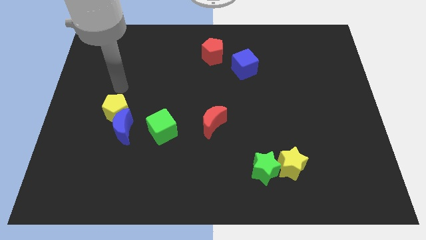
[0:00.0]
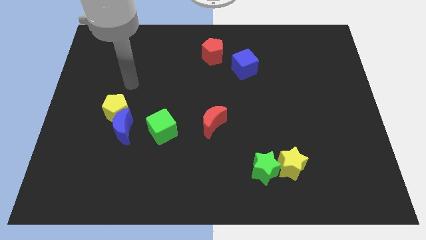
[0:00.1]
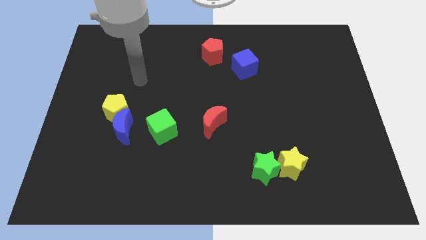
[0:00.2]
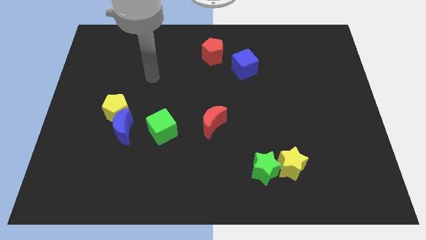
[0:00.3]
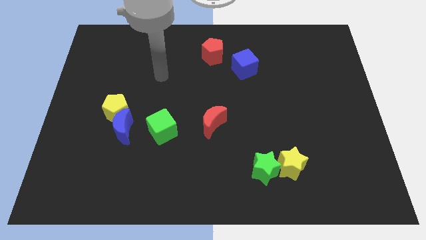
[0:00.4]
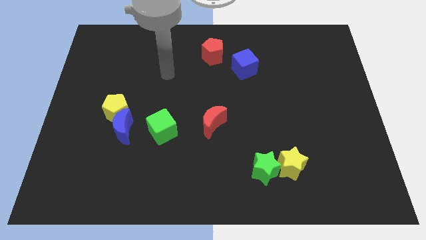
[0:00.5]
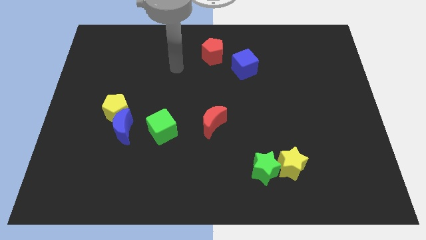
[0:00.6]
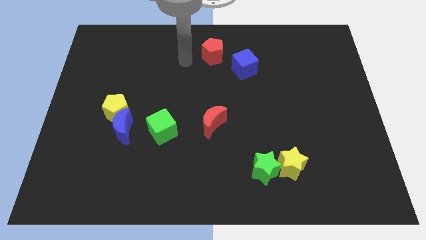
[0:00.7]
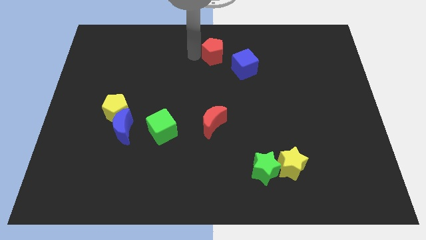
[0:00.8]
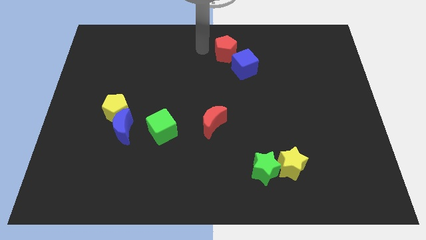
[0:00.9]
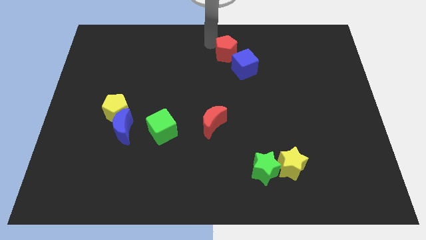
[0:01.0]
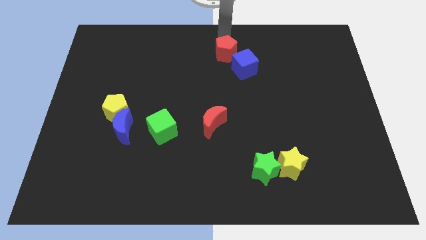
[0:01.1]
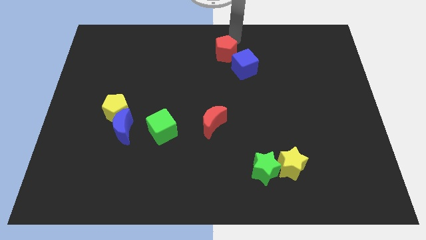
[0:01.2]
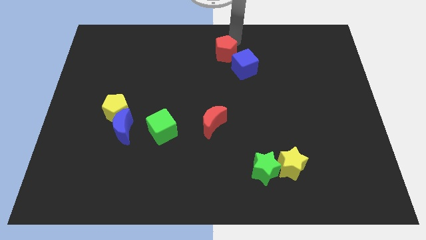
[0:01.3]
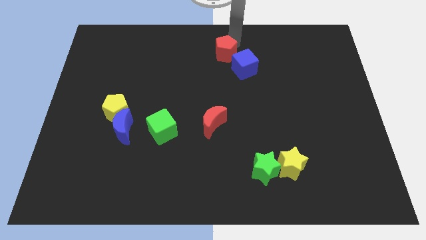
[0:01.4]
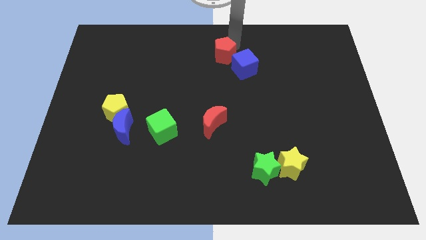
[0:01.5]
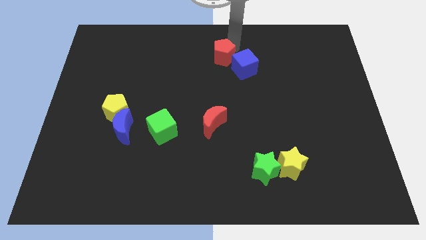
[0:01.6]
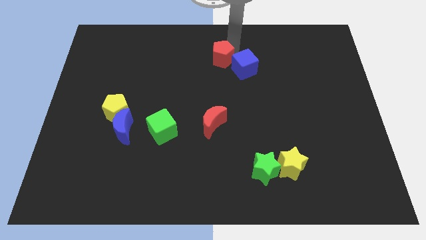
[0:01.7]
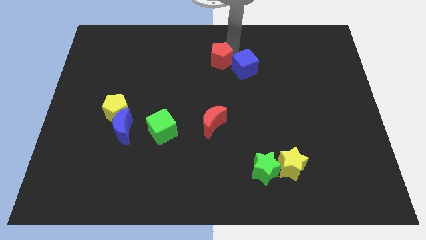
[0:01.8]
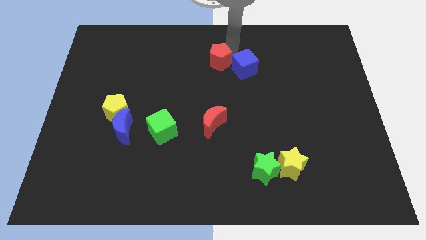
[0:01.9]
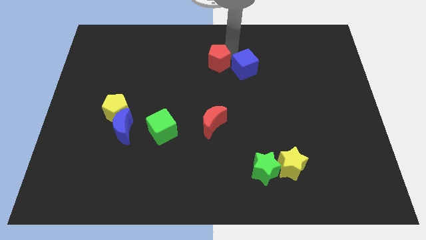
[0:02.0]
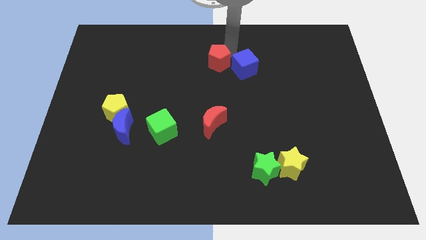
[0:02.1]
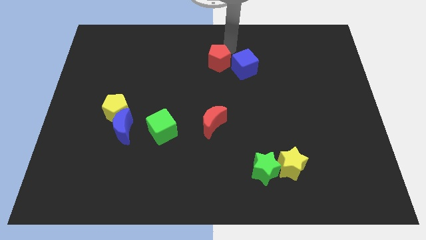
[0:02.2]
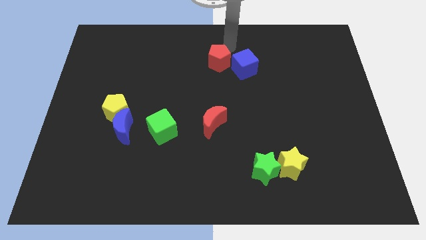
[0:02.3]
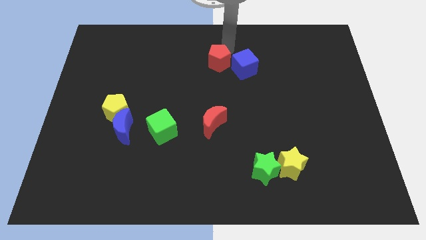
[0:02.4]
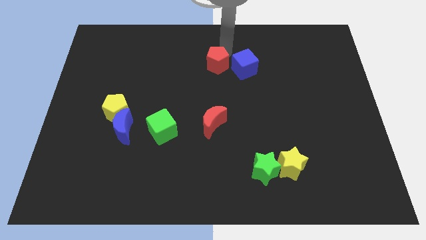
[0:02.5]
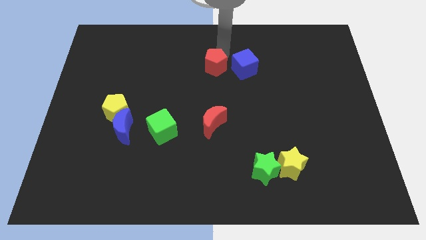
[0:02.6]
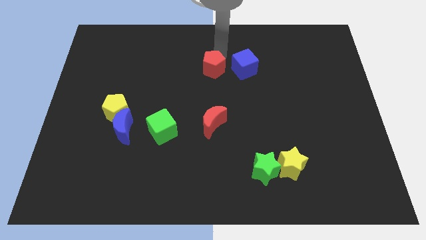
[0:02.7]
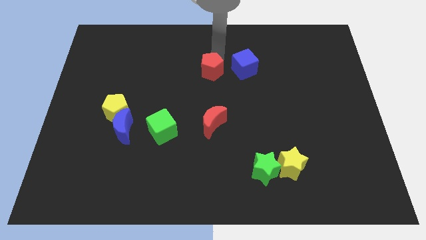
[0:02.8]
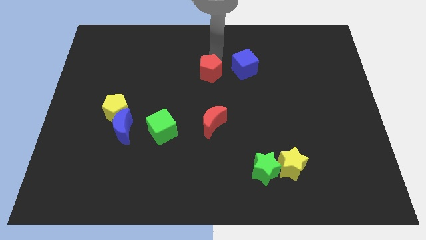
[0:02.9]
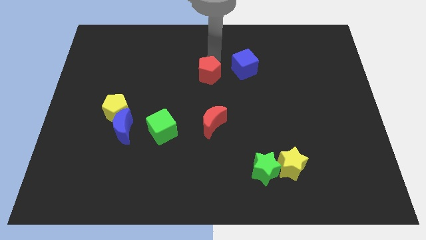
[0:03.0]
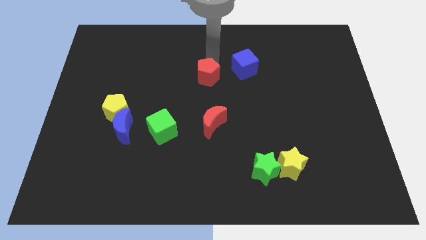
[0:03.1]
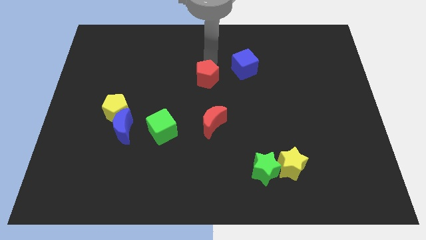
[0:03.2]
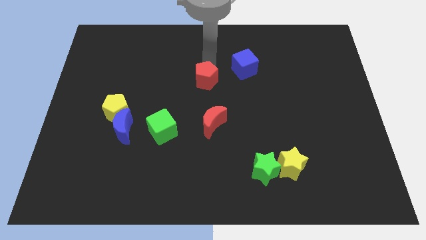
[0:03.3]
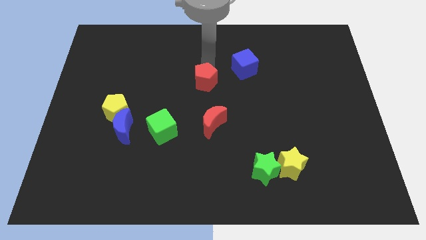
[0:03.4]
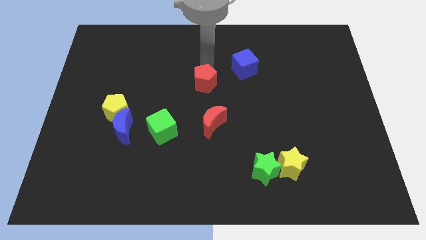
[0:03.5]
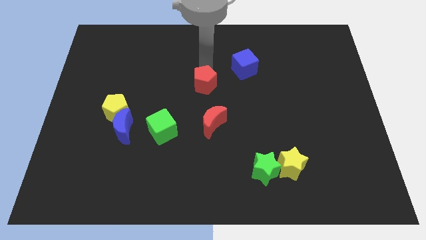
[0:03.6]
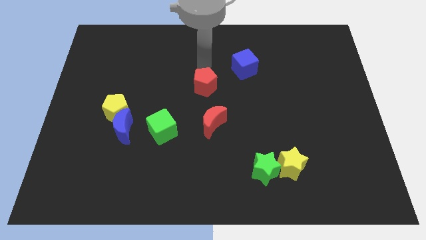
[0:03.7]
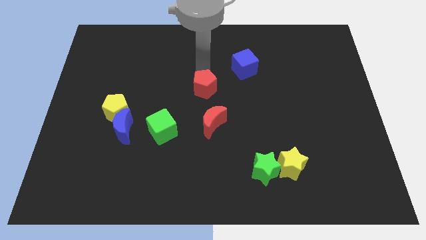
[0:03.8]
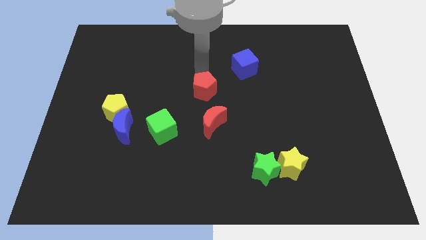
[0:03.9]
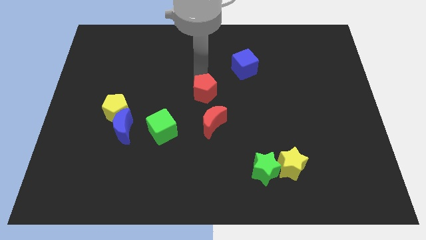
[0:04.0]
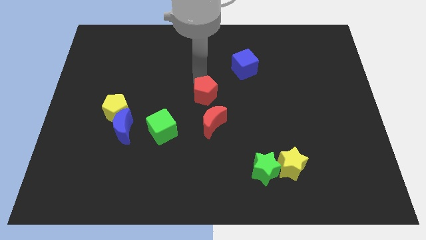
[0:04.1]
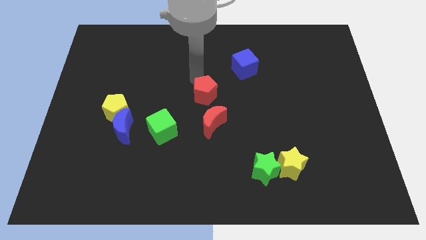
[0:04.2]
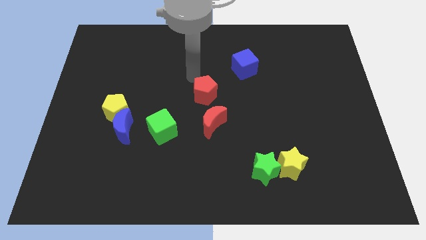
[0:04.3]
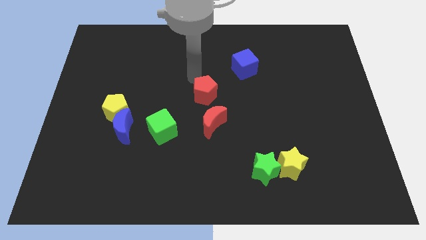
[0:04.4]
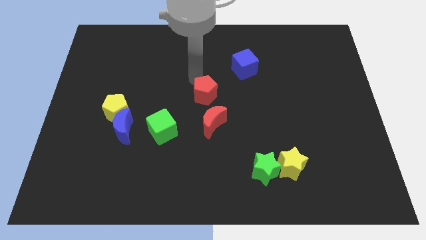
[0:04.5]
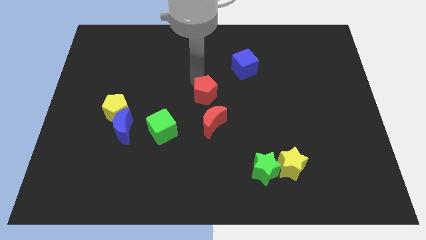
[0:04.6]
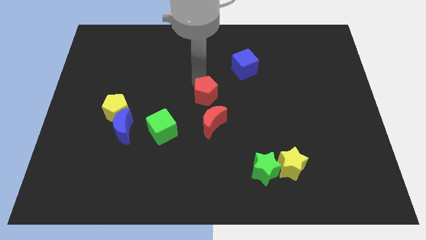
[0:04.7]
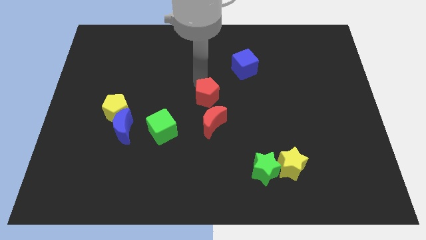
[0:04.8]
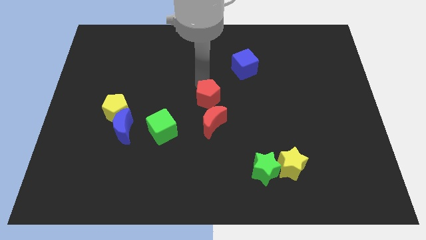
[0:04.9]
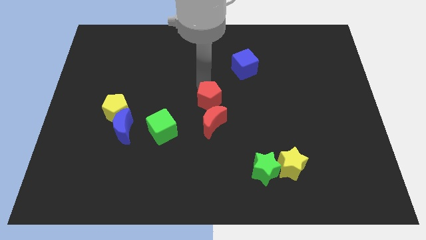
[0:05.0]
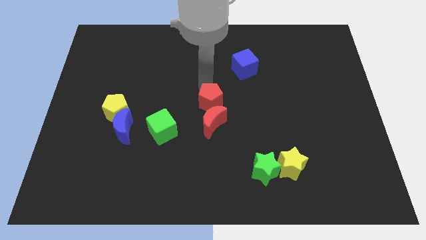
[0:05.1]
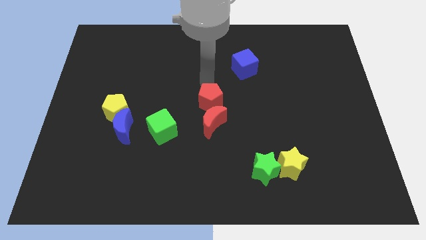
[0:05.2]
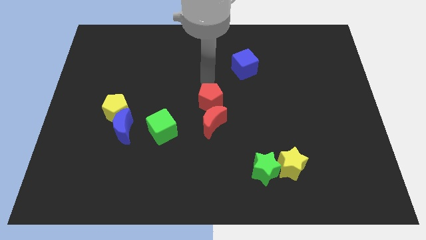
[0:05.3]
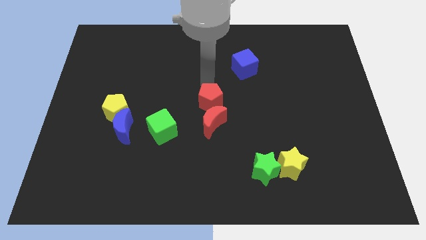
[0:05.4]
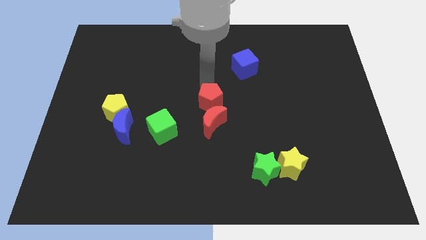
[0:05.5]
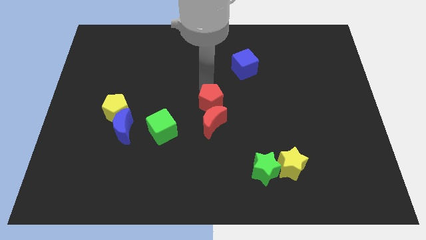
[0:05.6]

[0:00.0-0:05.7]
put the red pentagon close to the red moon

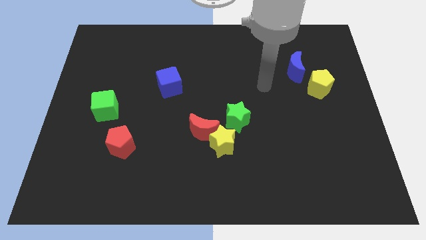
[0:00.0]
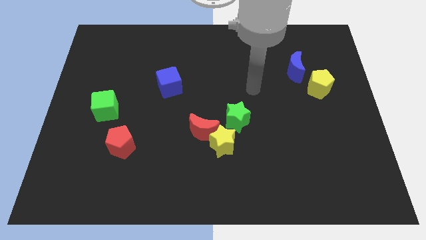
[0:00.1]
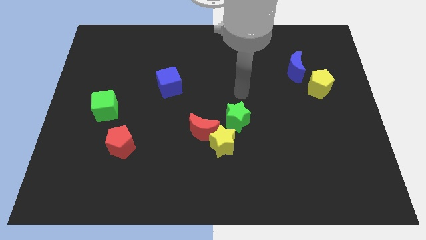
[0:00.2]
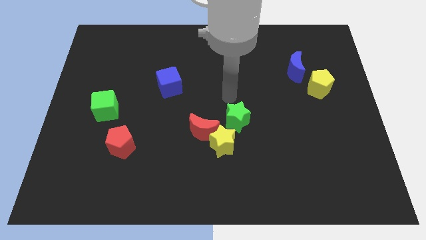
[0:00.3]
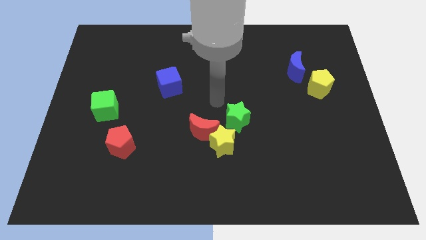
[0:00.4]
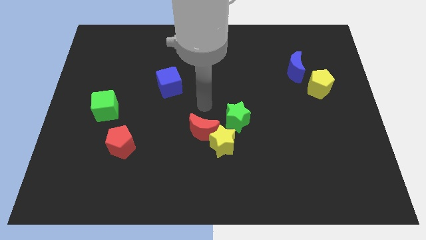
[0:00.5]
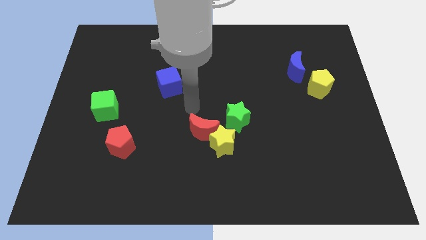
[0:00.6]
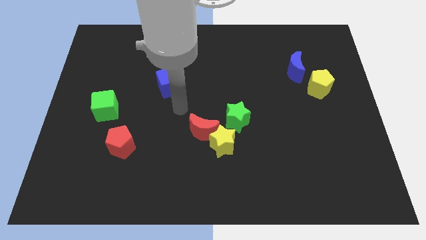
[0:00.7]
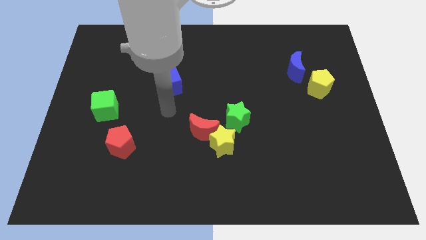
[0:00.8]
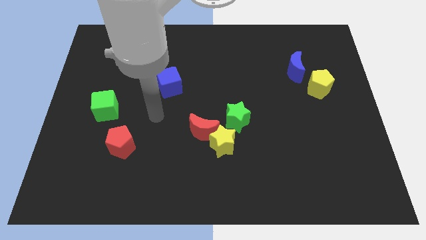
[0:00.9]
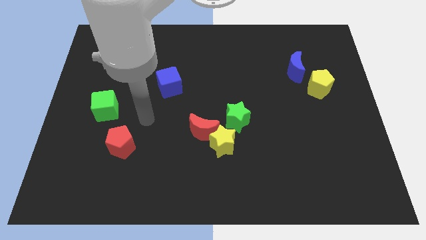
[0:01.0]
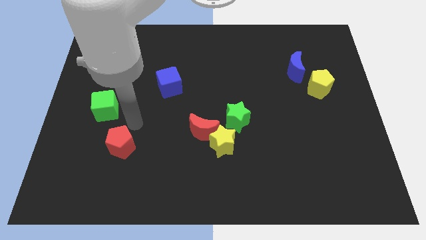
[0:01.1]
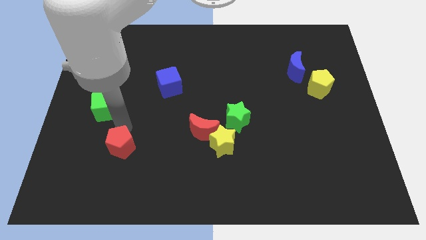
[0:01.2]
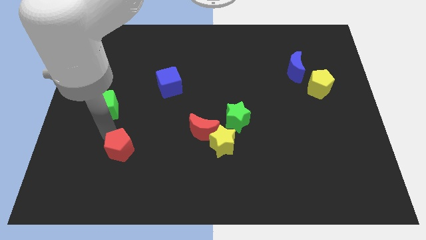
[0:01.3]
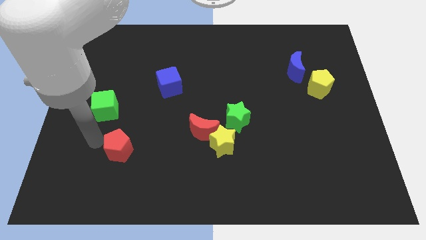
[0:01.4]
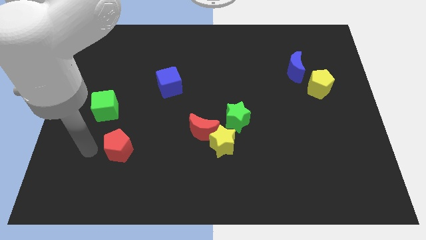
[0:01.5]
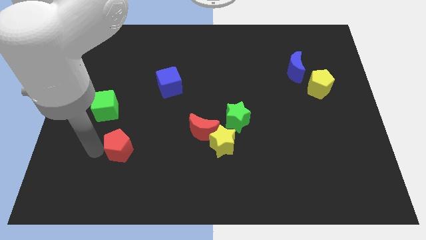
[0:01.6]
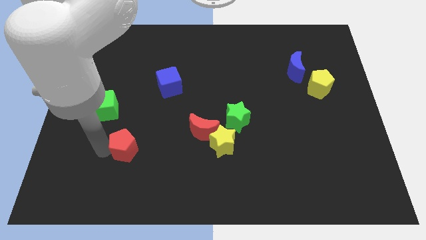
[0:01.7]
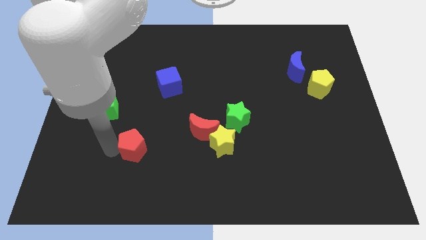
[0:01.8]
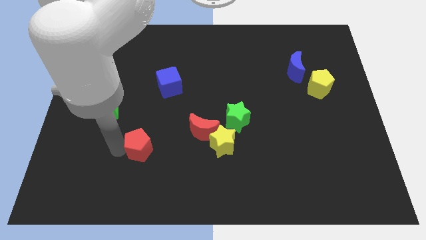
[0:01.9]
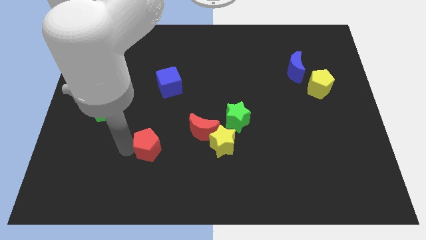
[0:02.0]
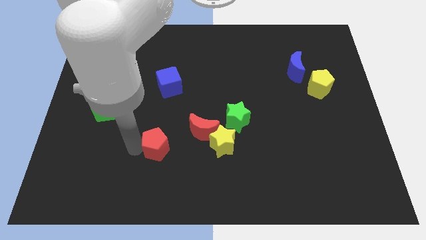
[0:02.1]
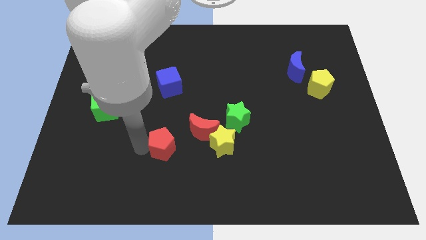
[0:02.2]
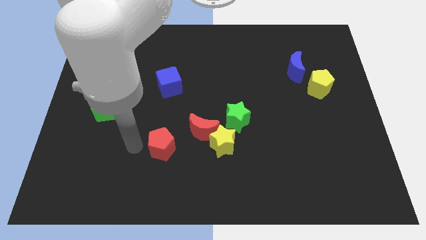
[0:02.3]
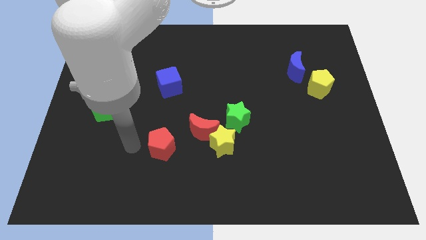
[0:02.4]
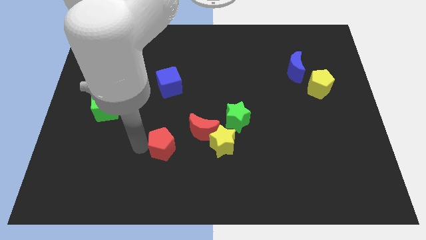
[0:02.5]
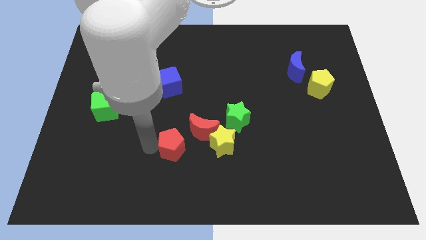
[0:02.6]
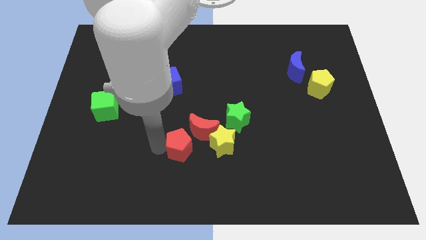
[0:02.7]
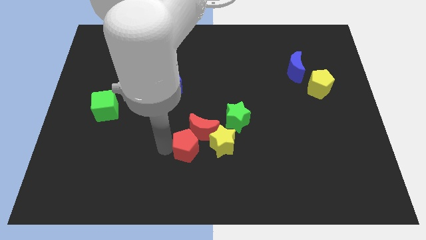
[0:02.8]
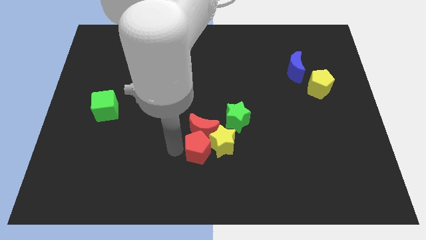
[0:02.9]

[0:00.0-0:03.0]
put the red pentagon towards the yellow star
